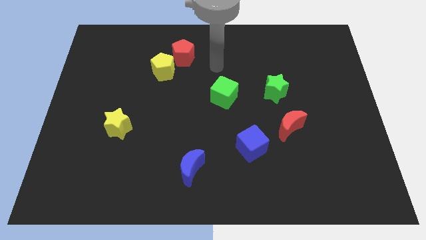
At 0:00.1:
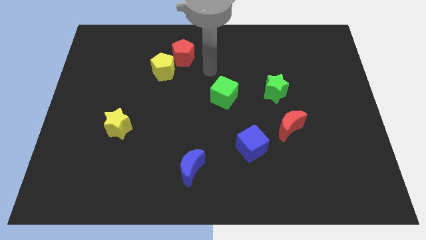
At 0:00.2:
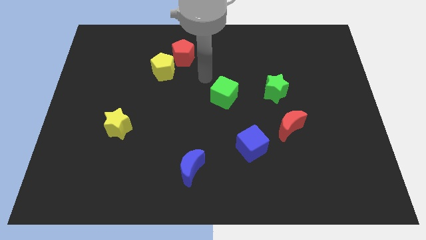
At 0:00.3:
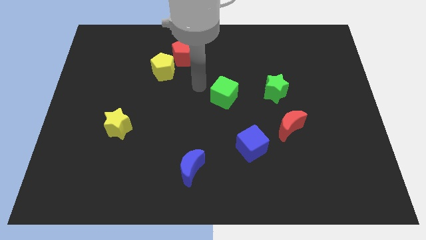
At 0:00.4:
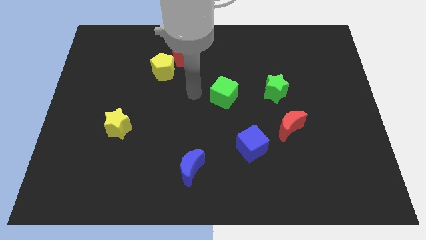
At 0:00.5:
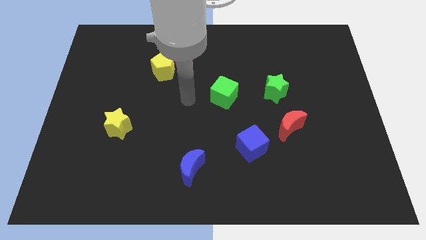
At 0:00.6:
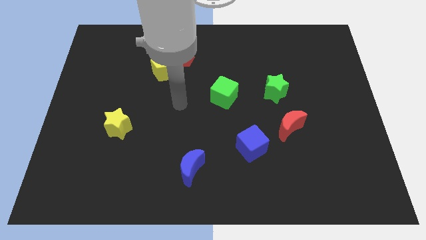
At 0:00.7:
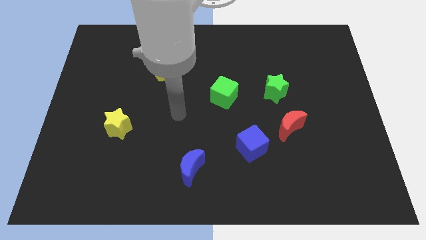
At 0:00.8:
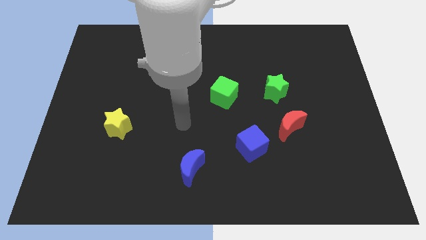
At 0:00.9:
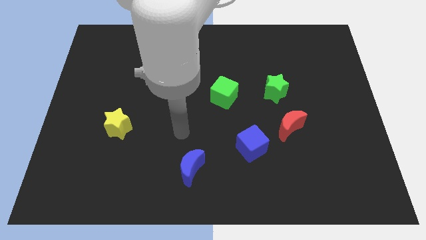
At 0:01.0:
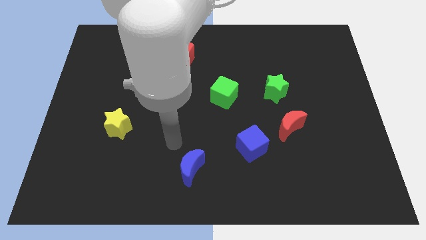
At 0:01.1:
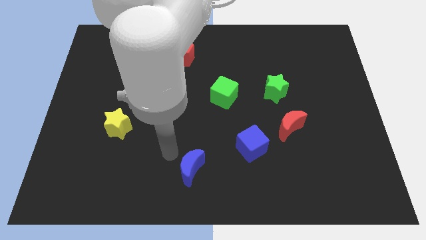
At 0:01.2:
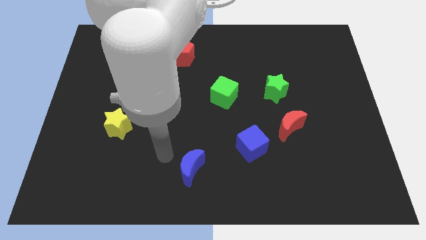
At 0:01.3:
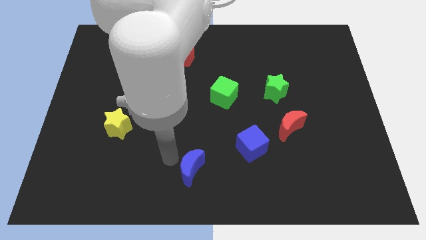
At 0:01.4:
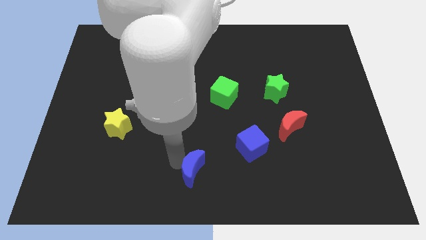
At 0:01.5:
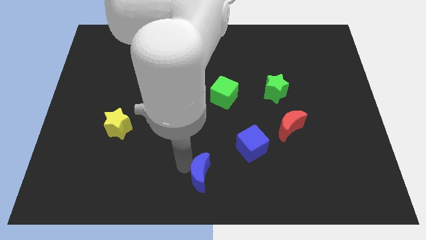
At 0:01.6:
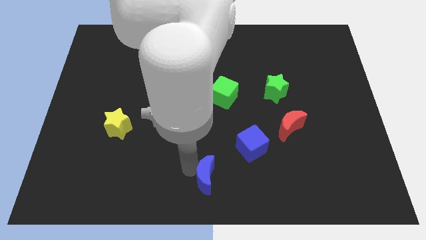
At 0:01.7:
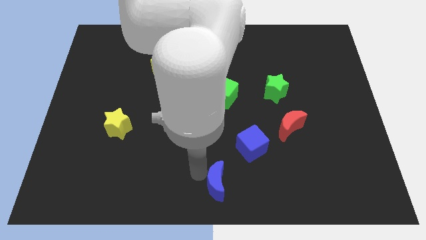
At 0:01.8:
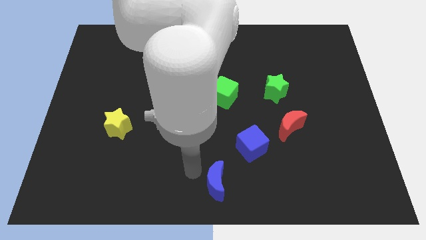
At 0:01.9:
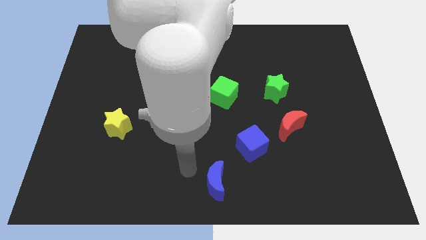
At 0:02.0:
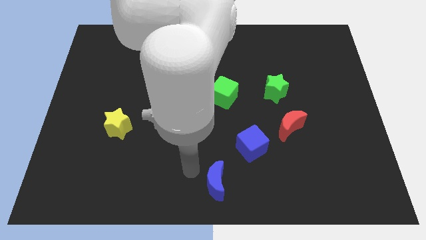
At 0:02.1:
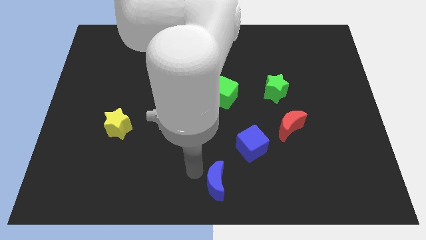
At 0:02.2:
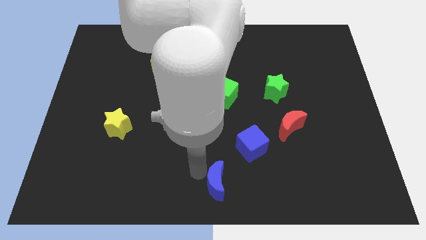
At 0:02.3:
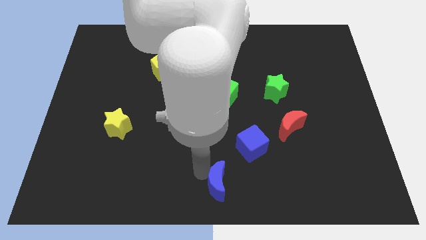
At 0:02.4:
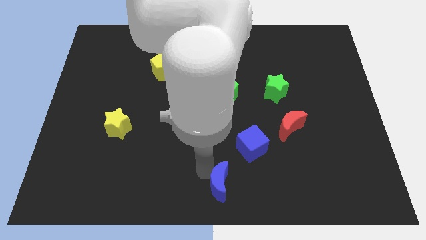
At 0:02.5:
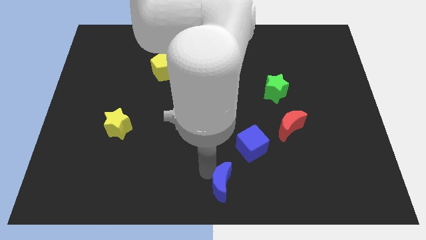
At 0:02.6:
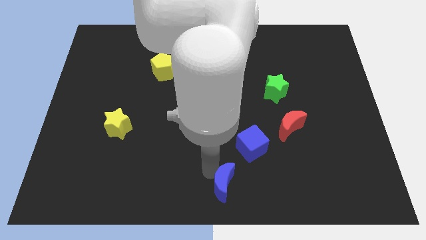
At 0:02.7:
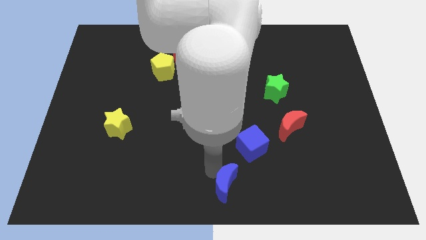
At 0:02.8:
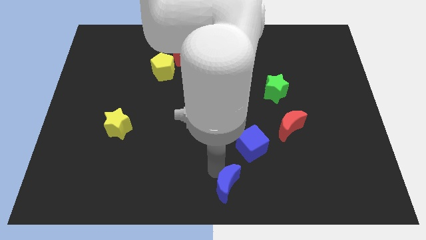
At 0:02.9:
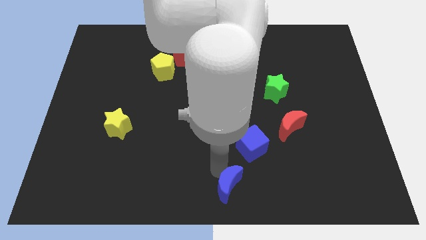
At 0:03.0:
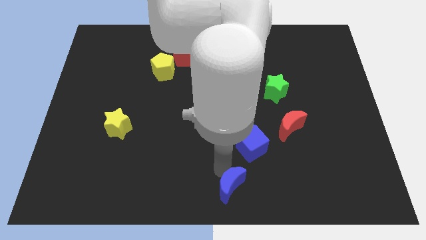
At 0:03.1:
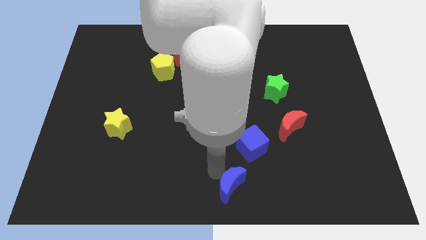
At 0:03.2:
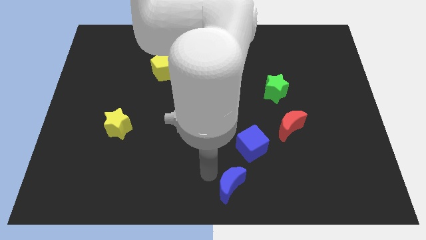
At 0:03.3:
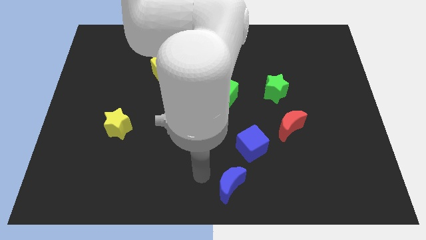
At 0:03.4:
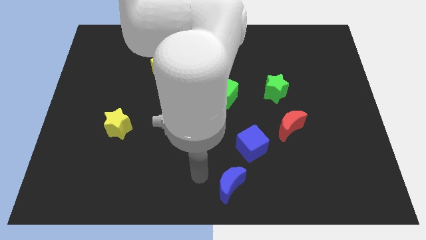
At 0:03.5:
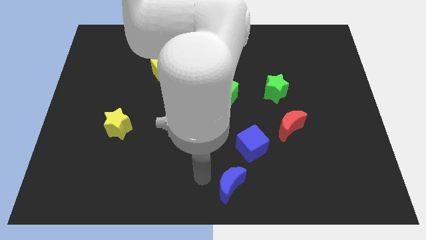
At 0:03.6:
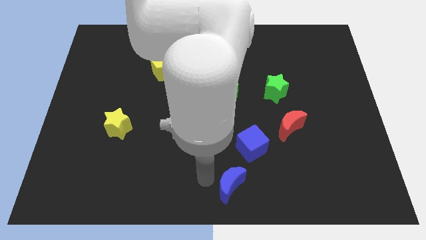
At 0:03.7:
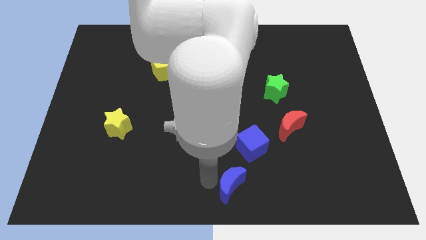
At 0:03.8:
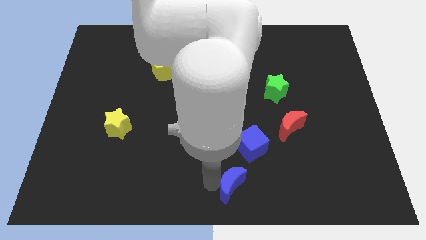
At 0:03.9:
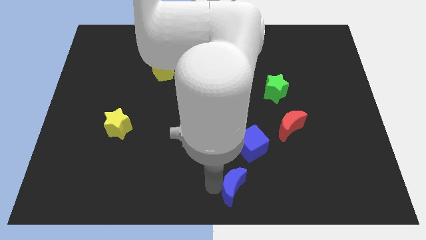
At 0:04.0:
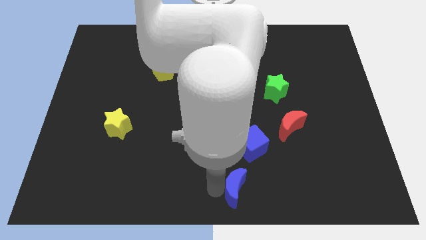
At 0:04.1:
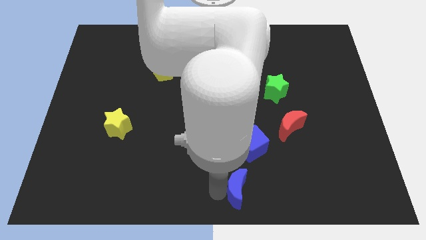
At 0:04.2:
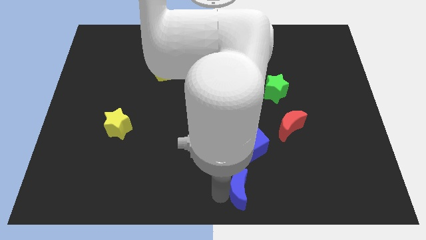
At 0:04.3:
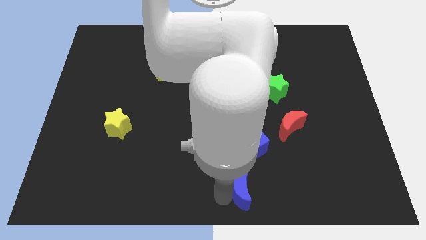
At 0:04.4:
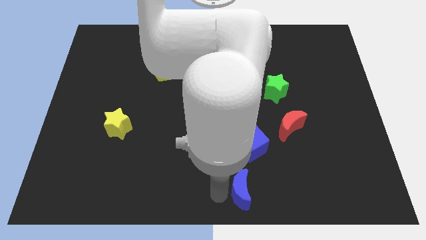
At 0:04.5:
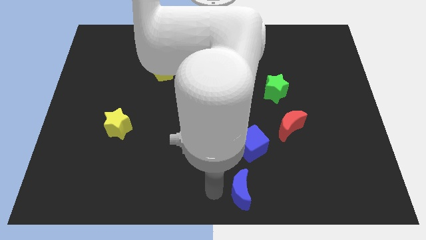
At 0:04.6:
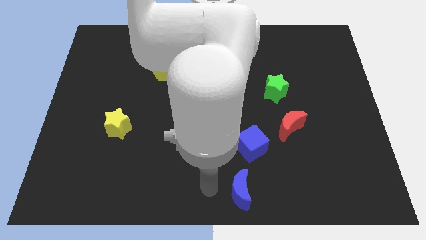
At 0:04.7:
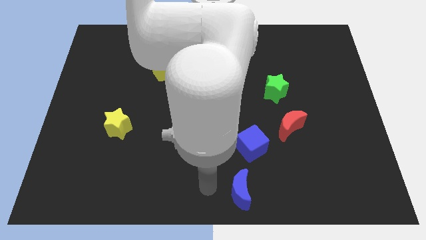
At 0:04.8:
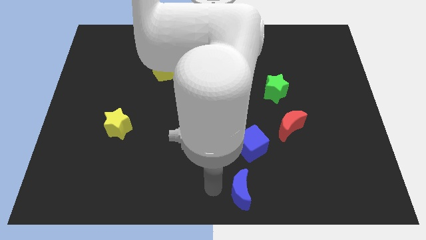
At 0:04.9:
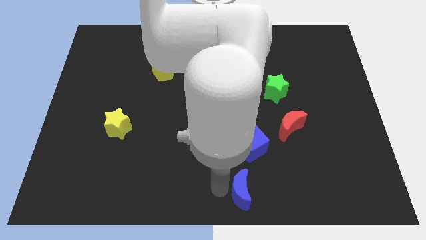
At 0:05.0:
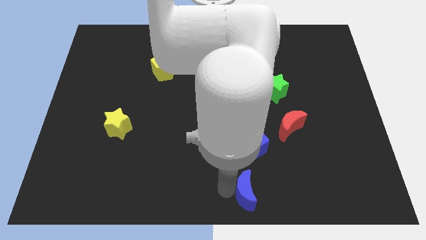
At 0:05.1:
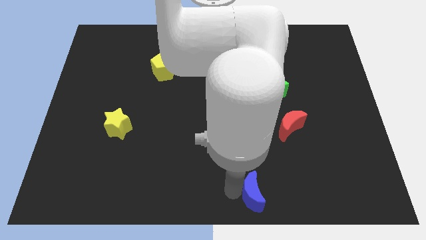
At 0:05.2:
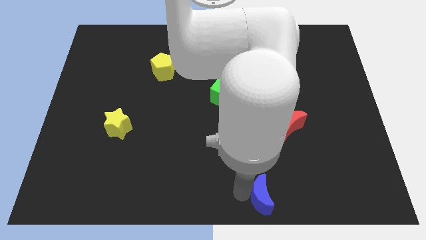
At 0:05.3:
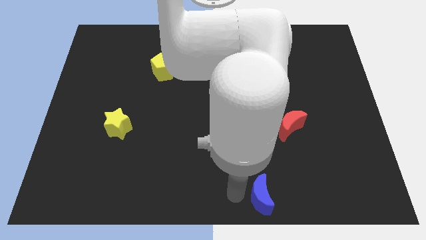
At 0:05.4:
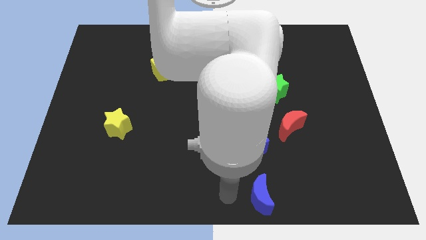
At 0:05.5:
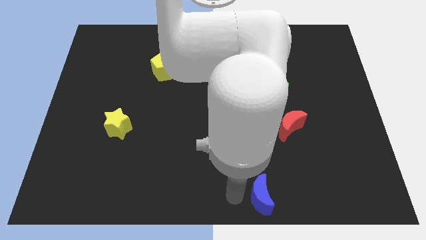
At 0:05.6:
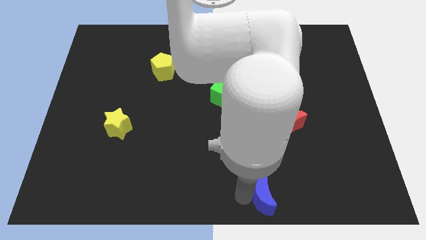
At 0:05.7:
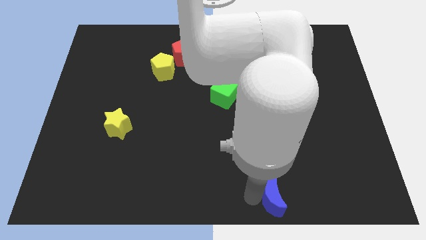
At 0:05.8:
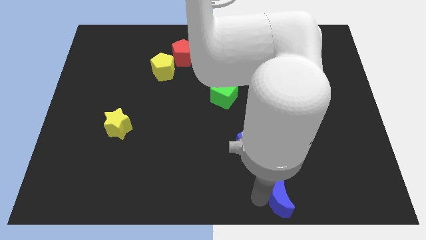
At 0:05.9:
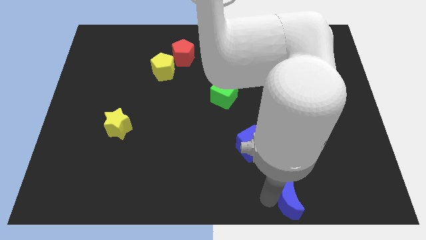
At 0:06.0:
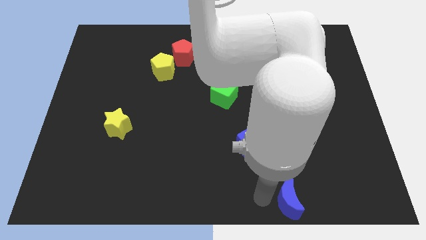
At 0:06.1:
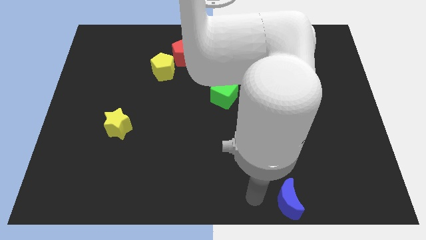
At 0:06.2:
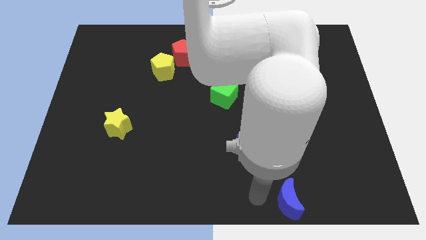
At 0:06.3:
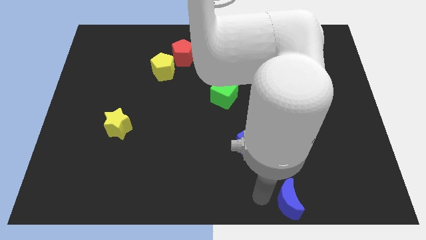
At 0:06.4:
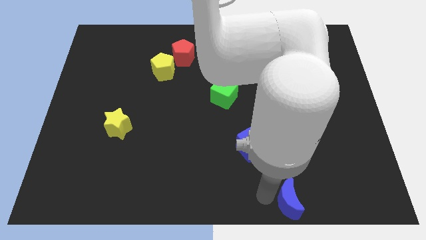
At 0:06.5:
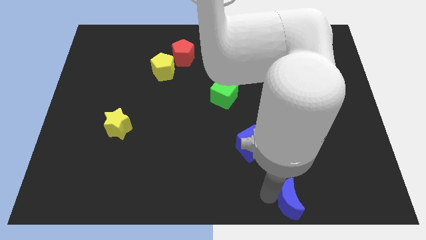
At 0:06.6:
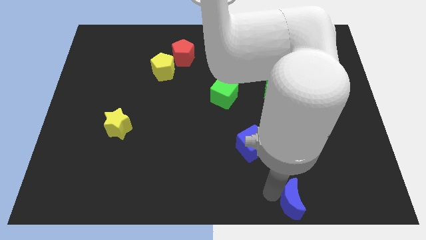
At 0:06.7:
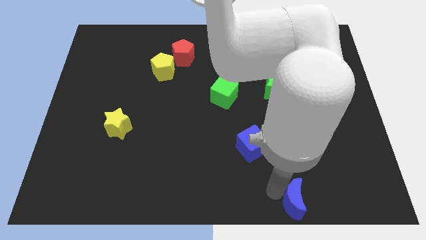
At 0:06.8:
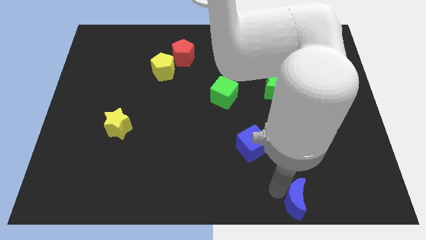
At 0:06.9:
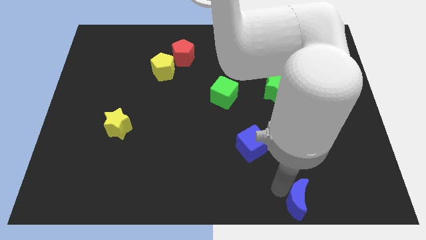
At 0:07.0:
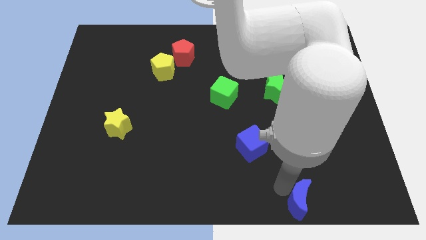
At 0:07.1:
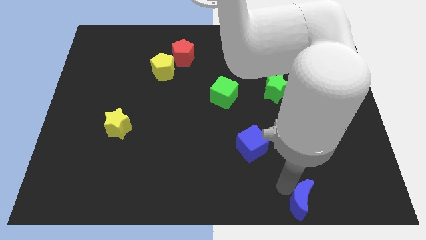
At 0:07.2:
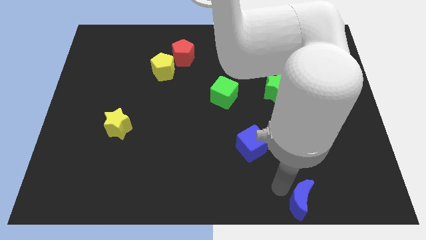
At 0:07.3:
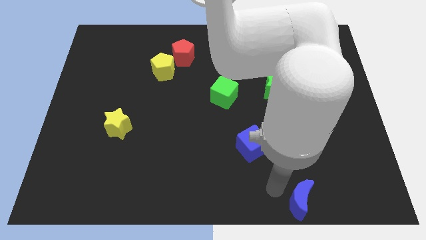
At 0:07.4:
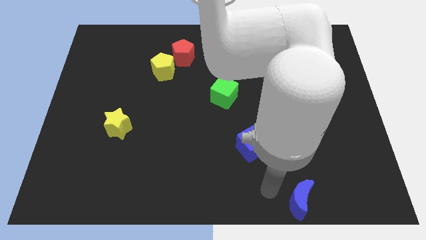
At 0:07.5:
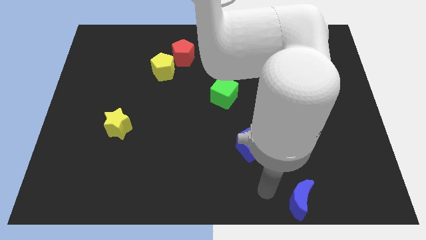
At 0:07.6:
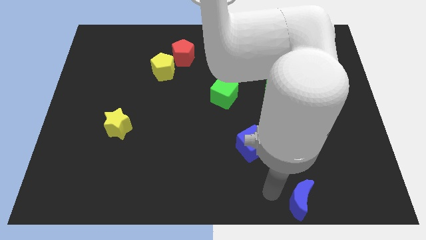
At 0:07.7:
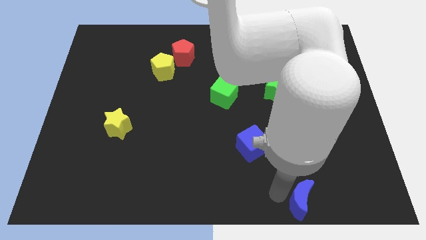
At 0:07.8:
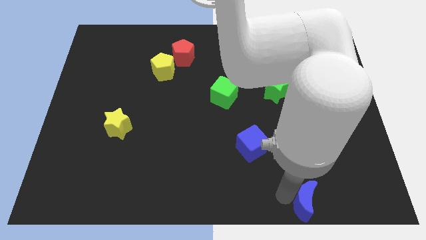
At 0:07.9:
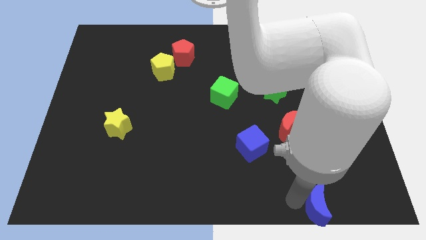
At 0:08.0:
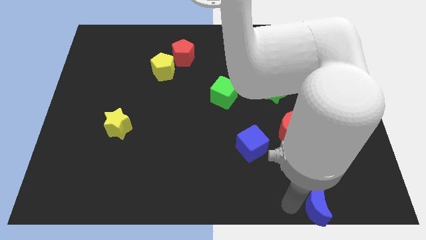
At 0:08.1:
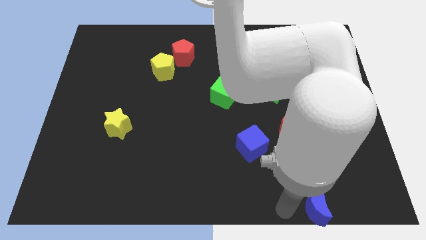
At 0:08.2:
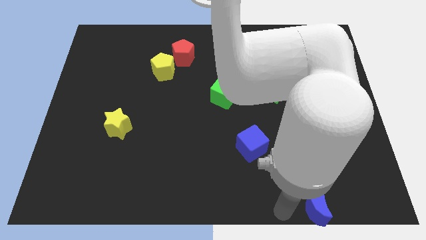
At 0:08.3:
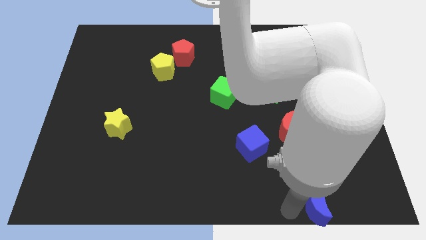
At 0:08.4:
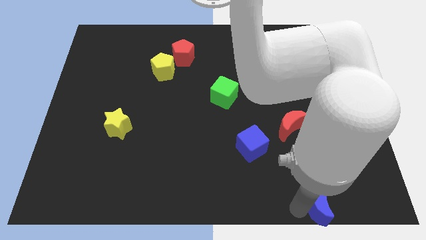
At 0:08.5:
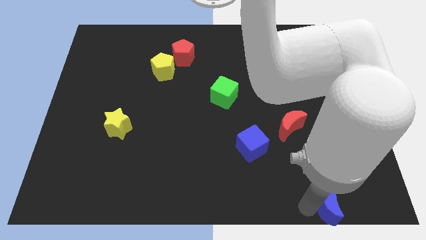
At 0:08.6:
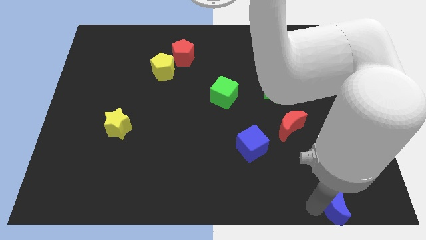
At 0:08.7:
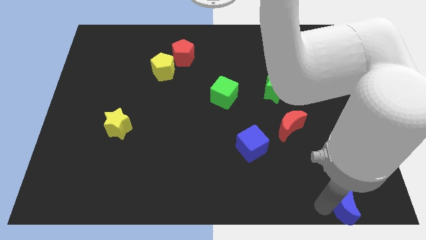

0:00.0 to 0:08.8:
push the blue moon to the bottom right
